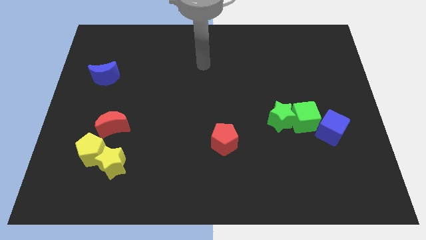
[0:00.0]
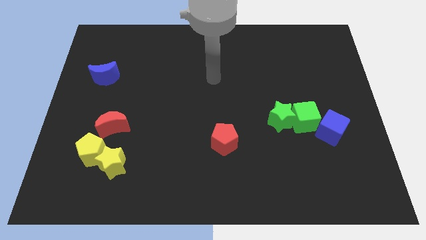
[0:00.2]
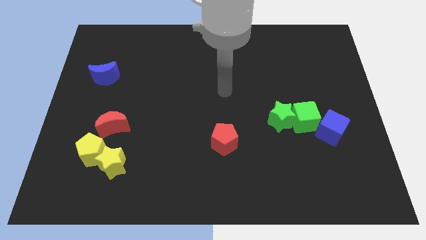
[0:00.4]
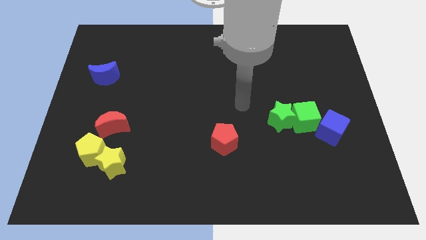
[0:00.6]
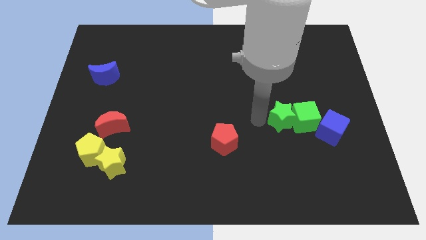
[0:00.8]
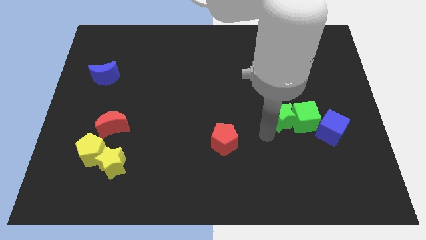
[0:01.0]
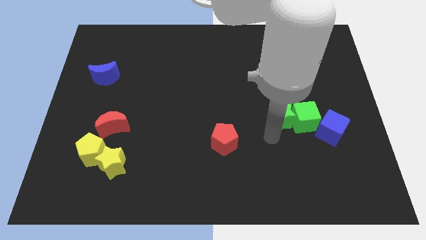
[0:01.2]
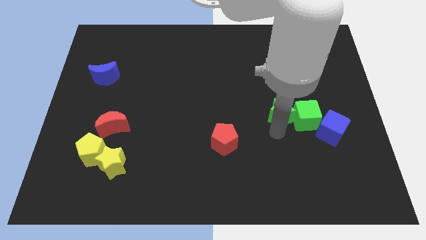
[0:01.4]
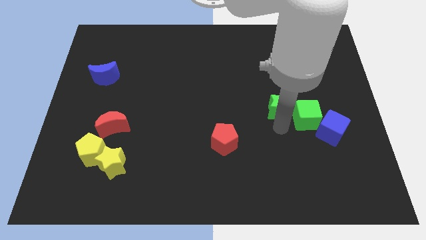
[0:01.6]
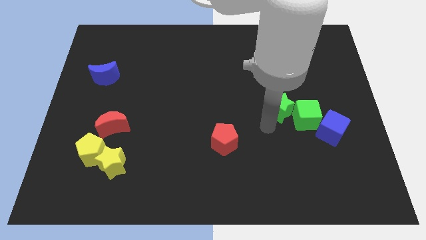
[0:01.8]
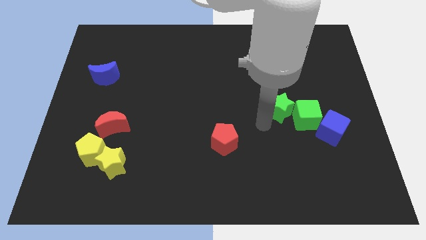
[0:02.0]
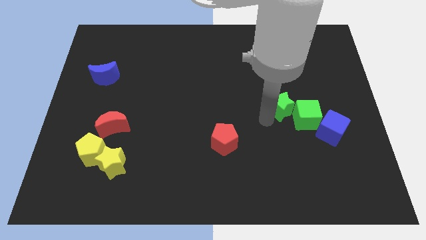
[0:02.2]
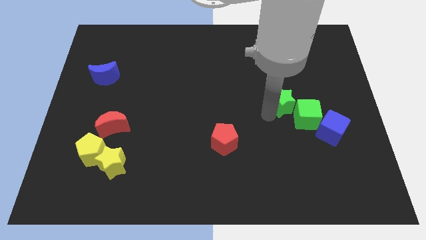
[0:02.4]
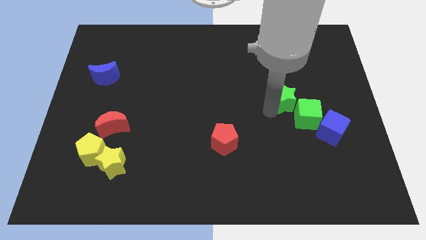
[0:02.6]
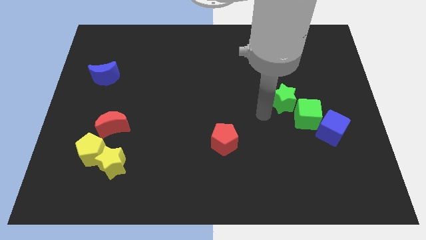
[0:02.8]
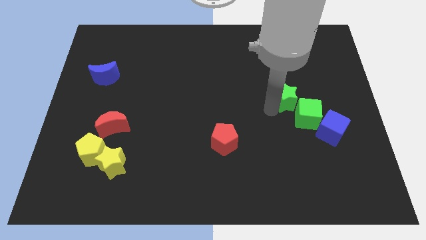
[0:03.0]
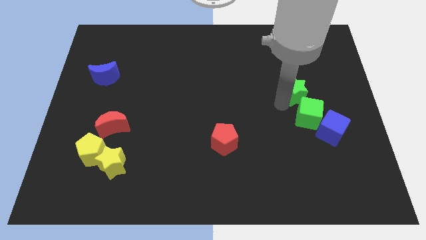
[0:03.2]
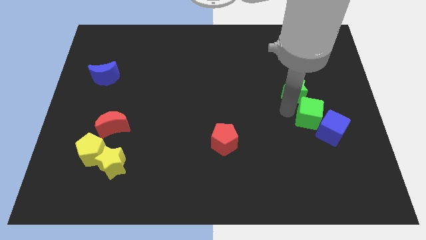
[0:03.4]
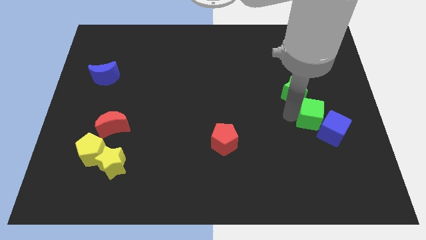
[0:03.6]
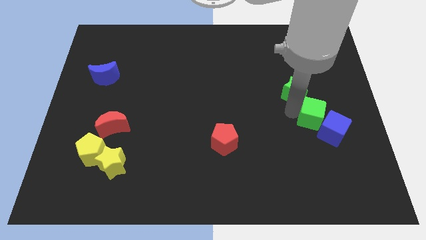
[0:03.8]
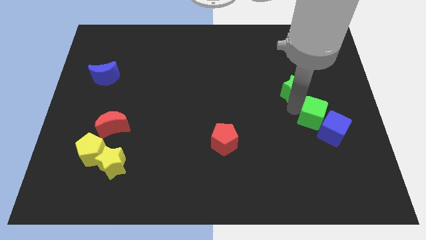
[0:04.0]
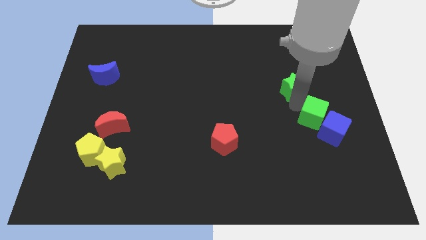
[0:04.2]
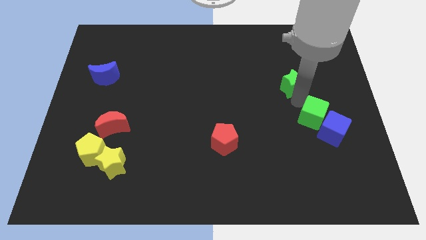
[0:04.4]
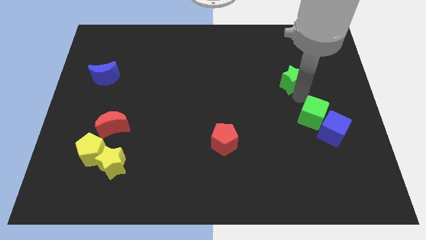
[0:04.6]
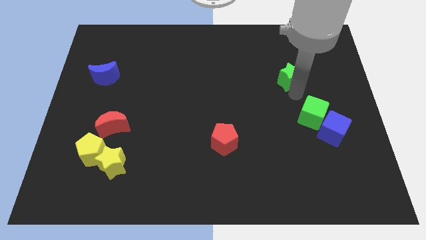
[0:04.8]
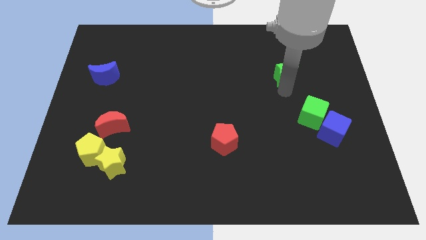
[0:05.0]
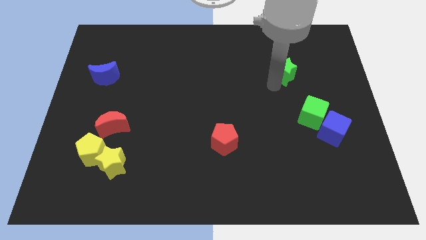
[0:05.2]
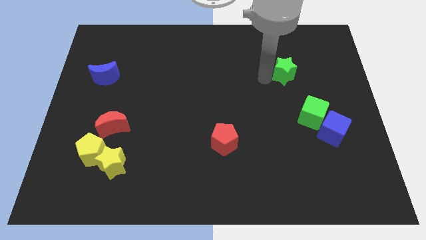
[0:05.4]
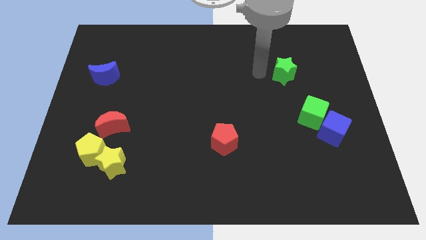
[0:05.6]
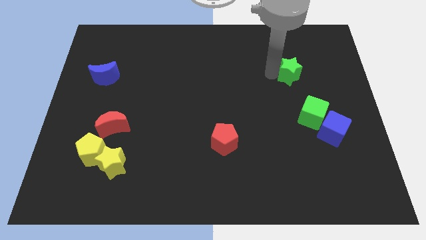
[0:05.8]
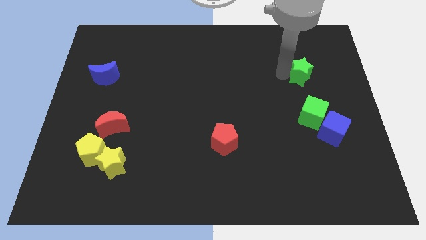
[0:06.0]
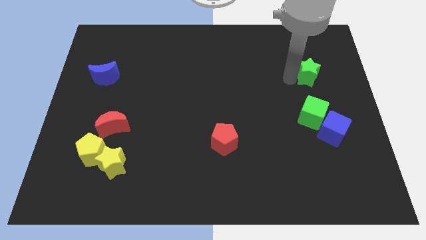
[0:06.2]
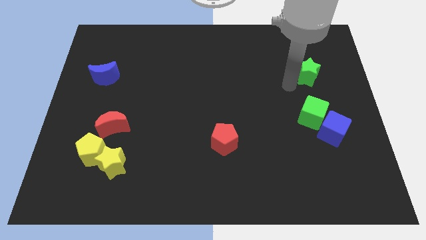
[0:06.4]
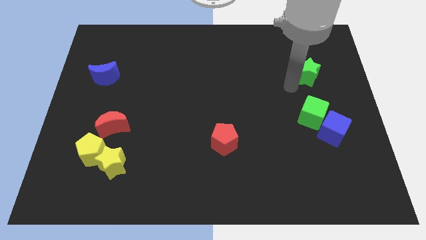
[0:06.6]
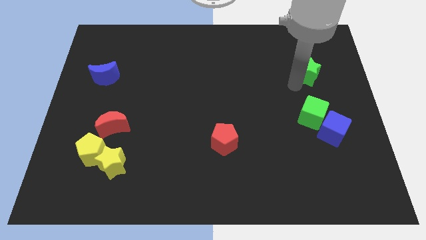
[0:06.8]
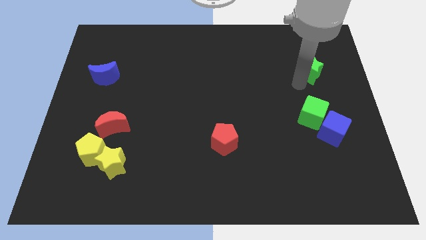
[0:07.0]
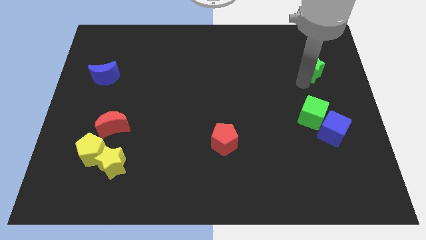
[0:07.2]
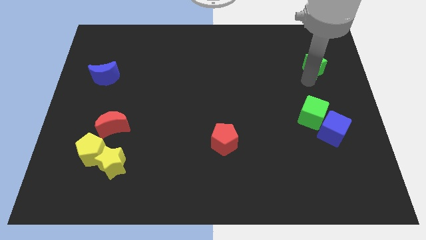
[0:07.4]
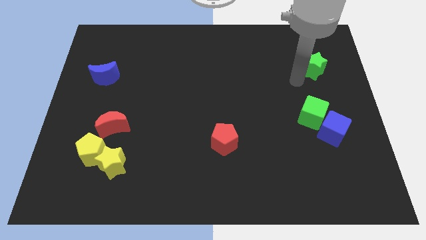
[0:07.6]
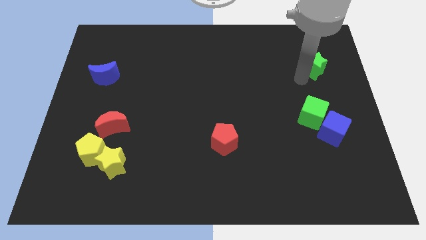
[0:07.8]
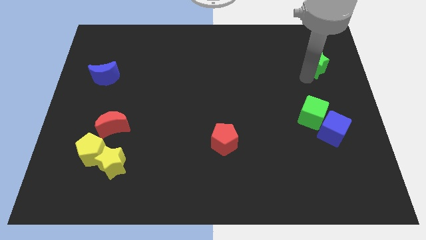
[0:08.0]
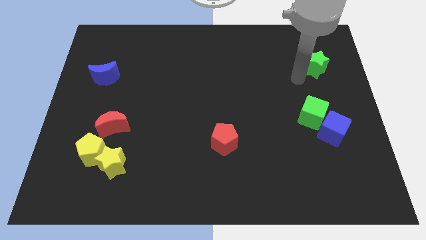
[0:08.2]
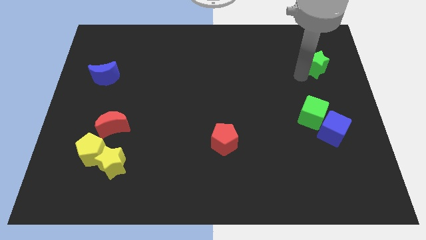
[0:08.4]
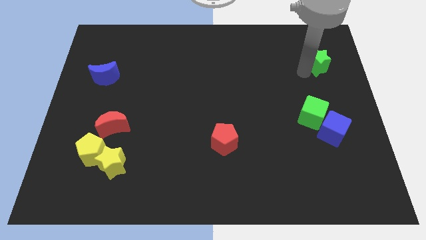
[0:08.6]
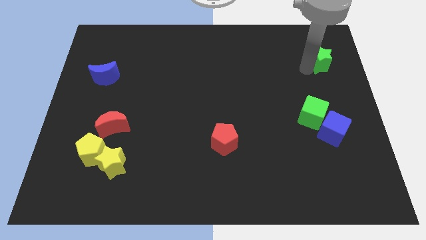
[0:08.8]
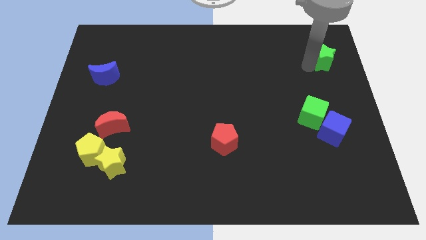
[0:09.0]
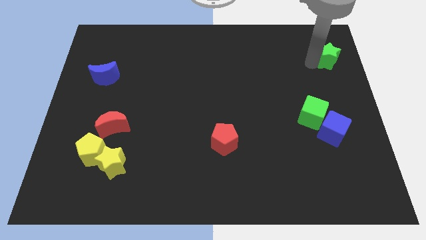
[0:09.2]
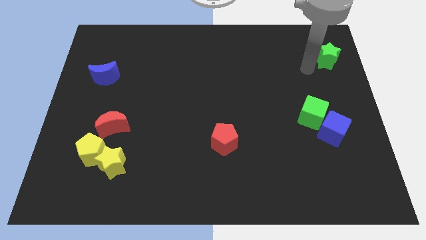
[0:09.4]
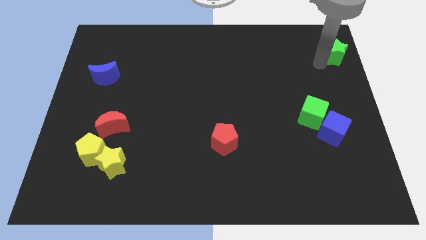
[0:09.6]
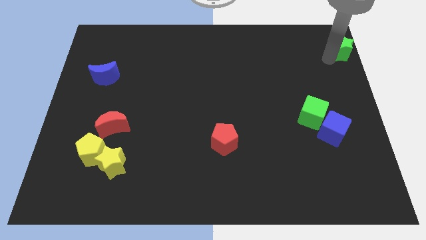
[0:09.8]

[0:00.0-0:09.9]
push the green star to the upper right corner

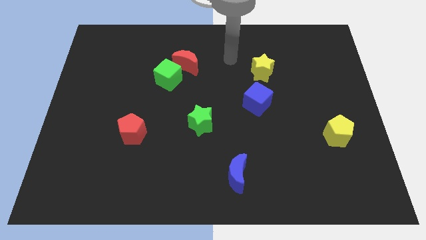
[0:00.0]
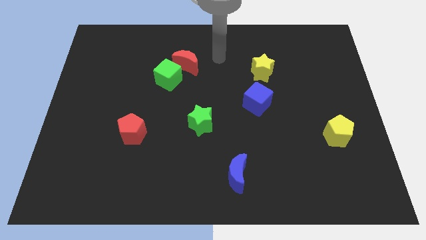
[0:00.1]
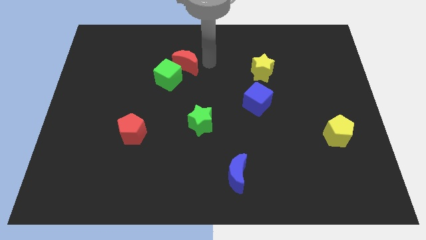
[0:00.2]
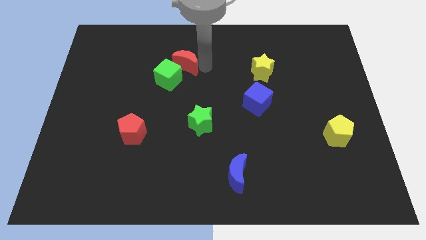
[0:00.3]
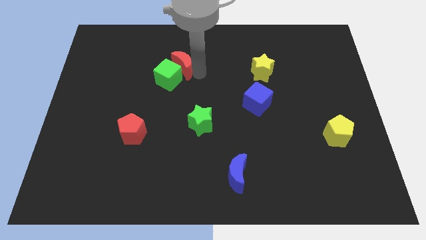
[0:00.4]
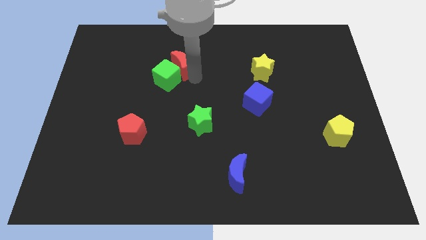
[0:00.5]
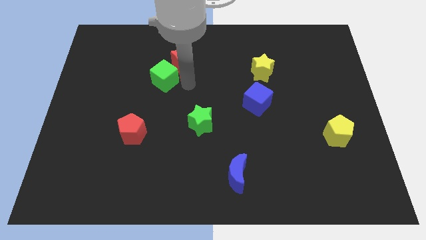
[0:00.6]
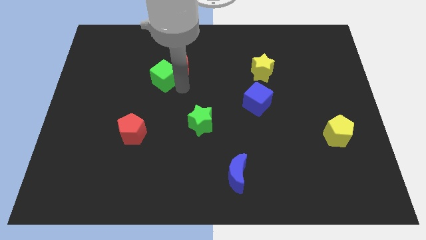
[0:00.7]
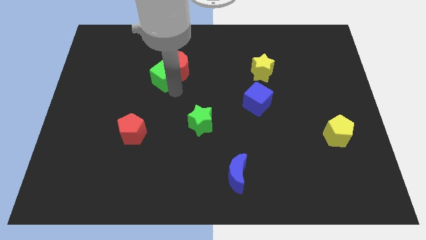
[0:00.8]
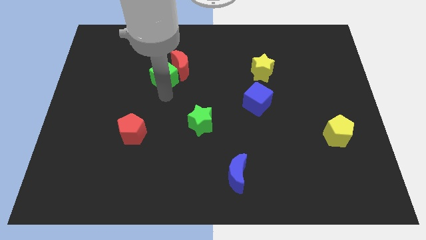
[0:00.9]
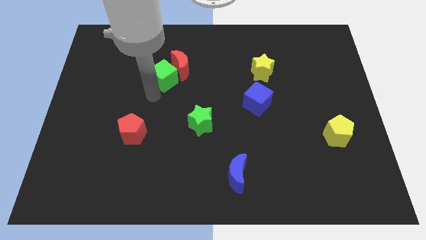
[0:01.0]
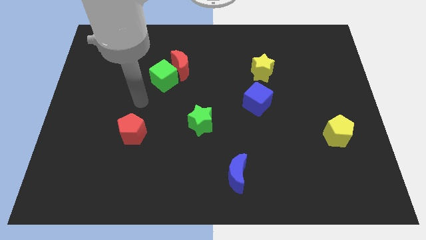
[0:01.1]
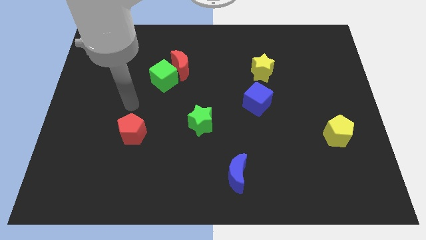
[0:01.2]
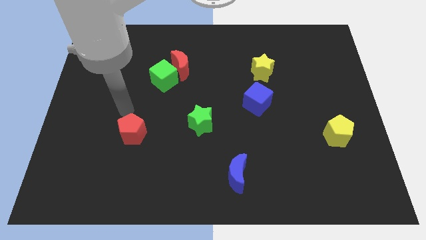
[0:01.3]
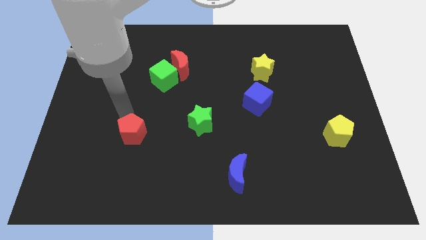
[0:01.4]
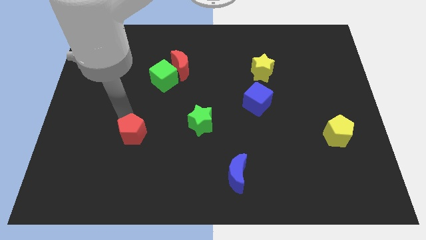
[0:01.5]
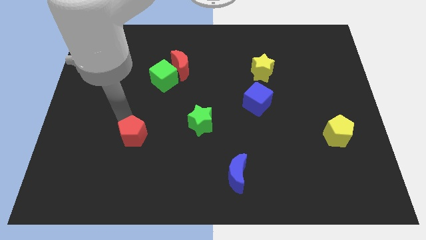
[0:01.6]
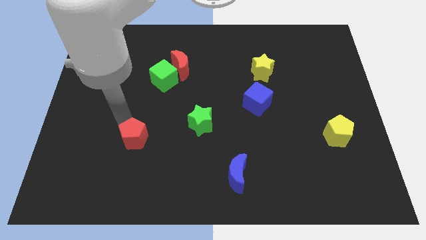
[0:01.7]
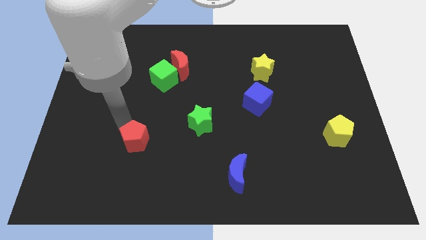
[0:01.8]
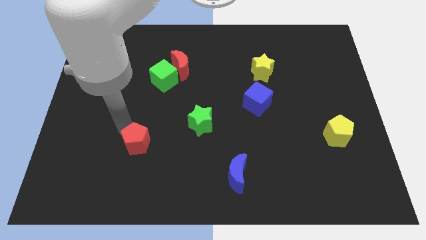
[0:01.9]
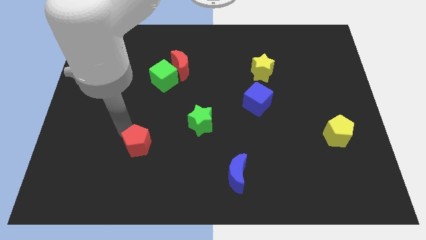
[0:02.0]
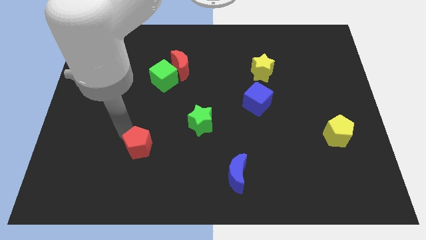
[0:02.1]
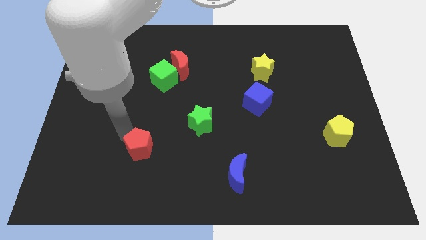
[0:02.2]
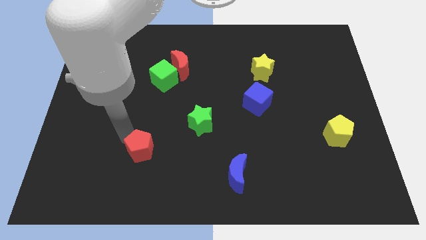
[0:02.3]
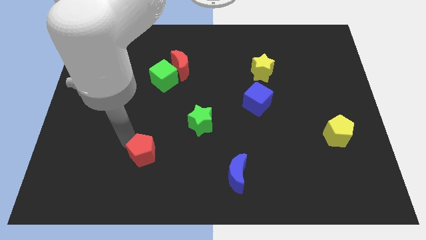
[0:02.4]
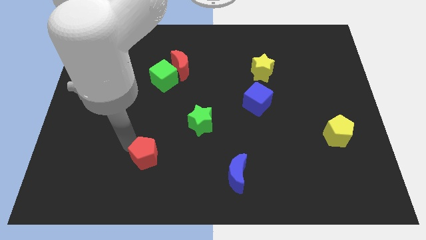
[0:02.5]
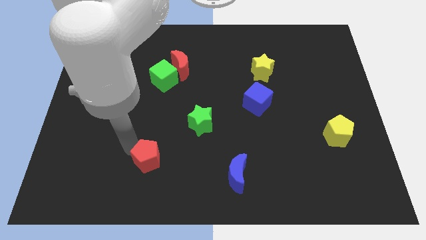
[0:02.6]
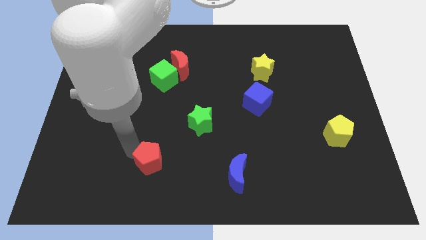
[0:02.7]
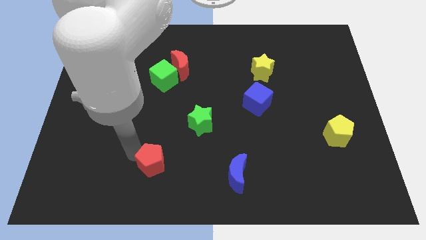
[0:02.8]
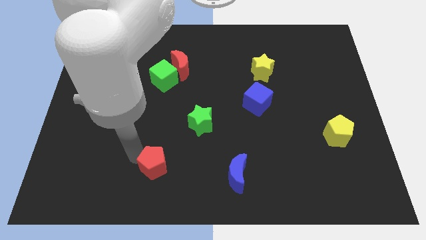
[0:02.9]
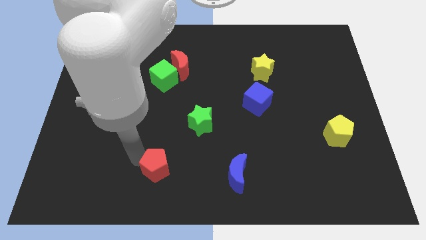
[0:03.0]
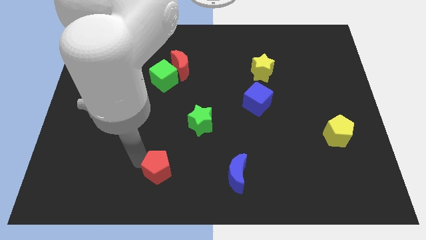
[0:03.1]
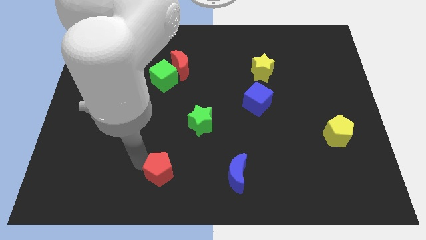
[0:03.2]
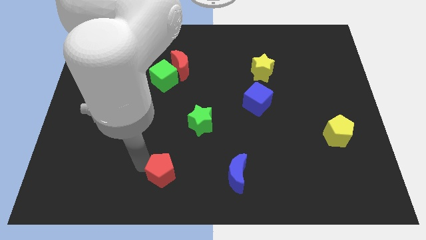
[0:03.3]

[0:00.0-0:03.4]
push the red pentagon to the bottom side
